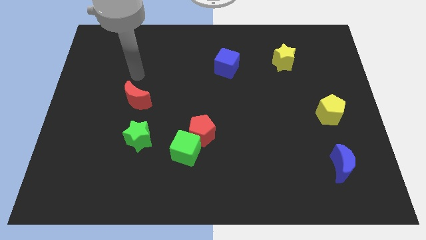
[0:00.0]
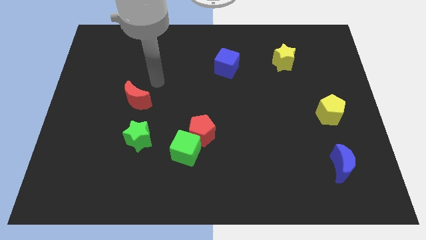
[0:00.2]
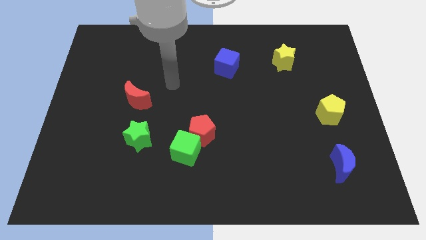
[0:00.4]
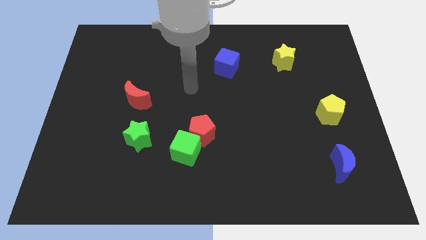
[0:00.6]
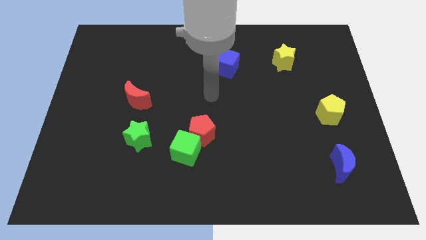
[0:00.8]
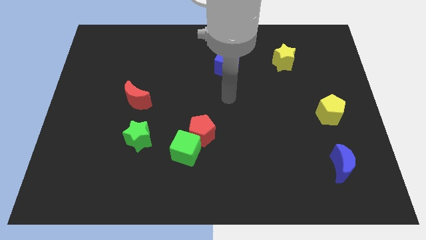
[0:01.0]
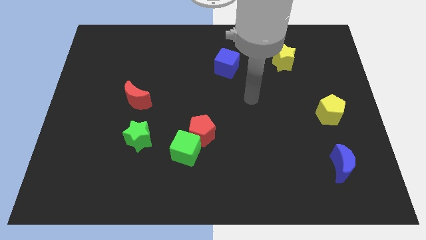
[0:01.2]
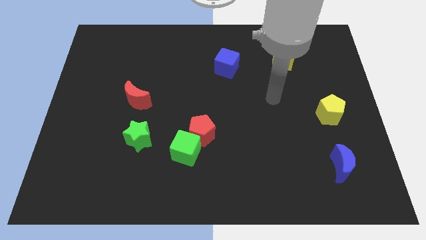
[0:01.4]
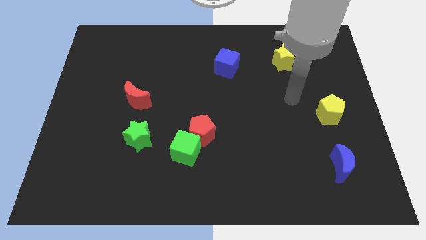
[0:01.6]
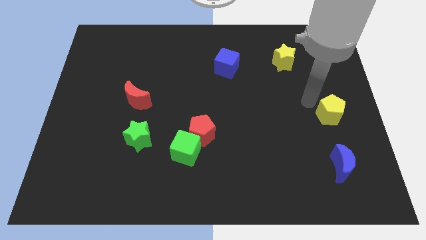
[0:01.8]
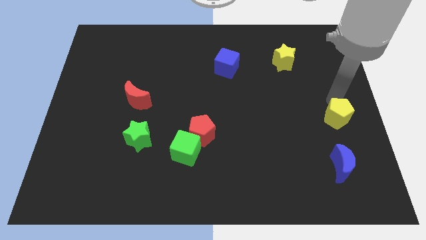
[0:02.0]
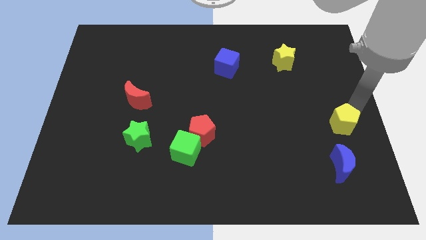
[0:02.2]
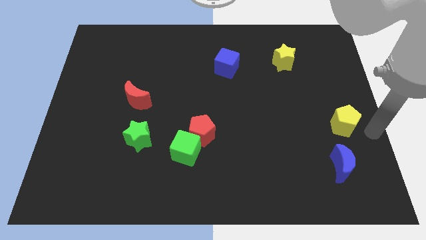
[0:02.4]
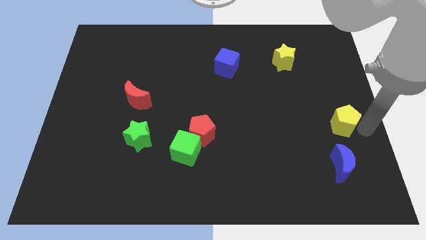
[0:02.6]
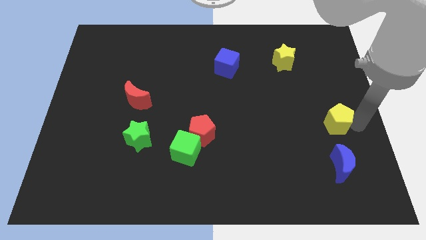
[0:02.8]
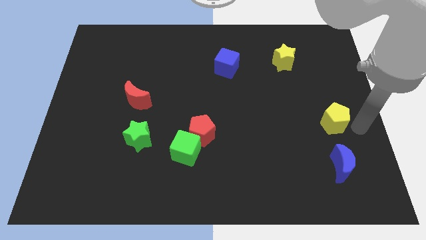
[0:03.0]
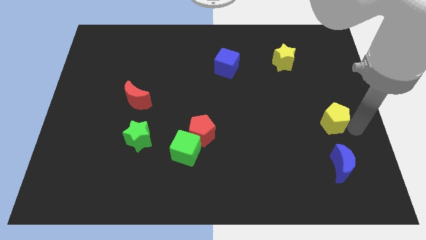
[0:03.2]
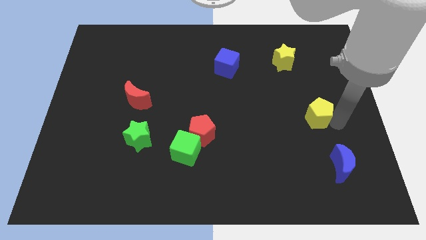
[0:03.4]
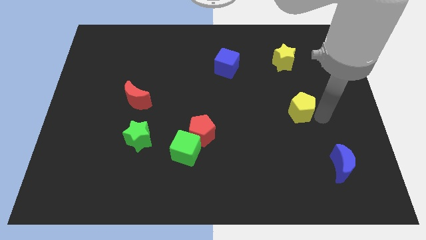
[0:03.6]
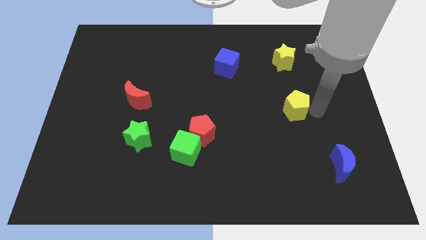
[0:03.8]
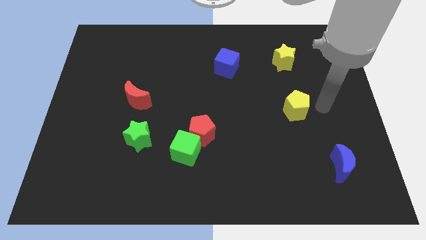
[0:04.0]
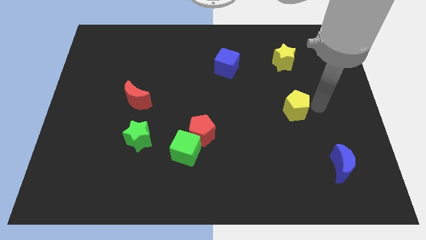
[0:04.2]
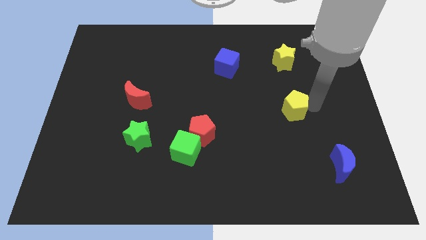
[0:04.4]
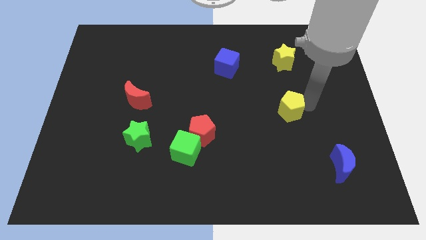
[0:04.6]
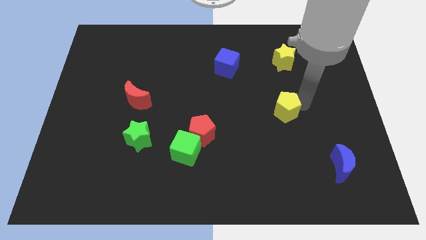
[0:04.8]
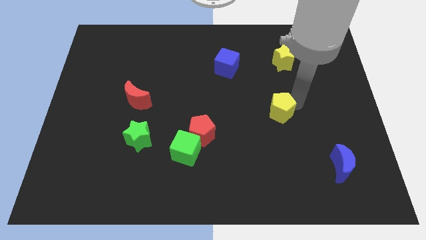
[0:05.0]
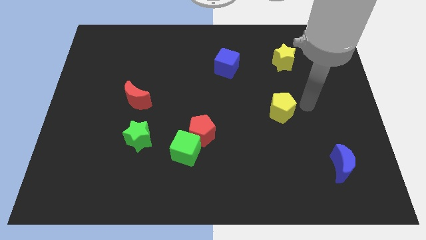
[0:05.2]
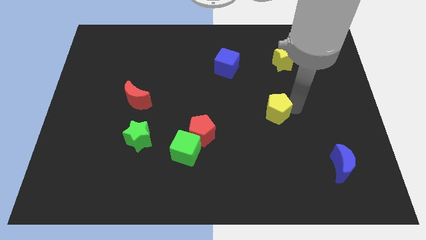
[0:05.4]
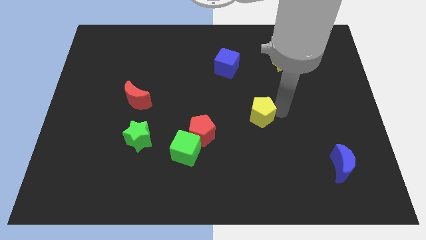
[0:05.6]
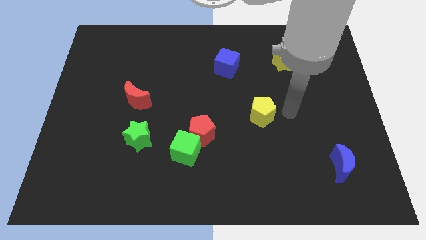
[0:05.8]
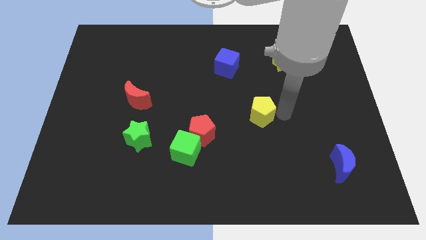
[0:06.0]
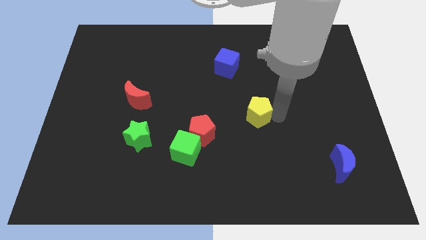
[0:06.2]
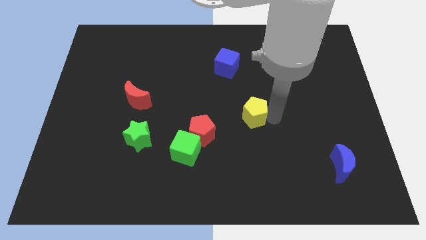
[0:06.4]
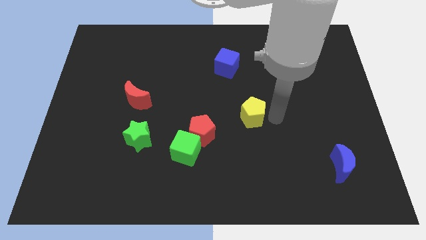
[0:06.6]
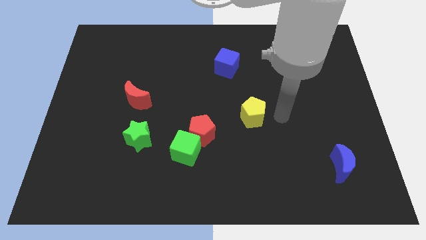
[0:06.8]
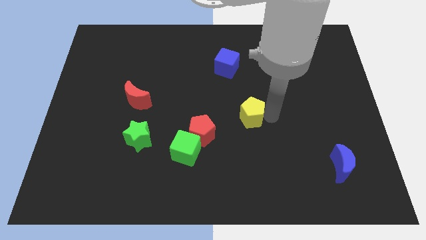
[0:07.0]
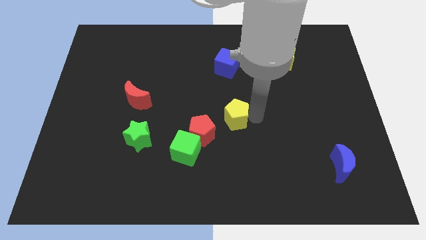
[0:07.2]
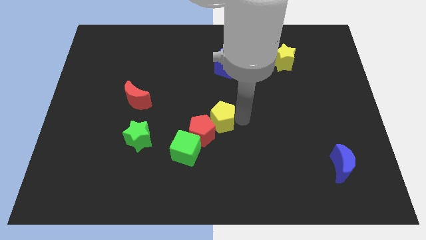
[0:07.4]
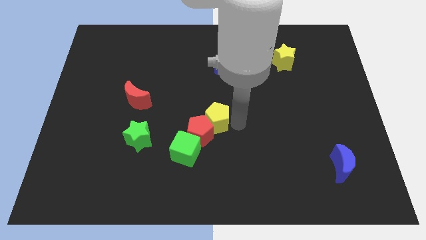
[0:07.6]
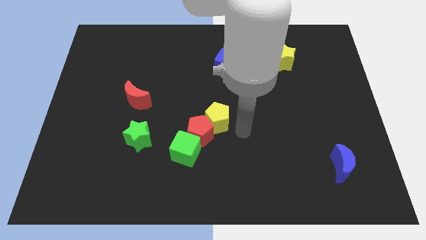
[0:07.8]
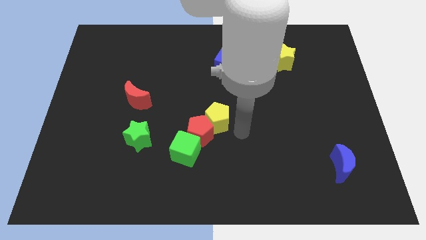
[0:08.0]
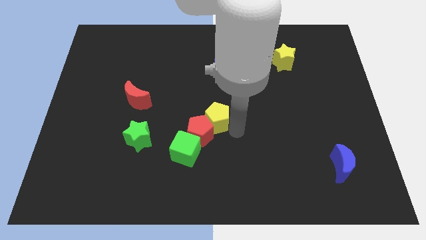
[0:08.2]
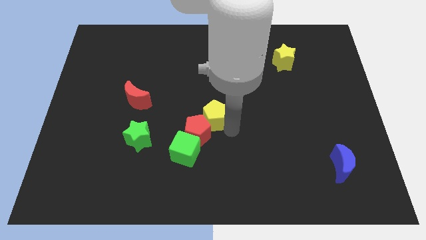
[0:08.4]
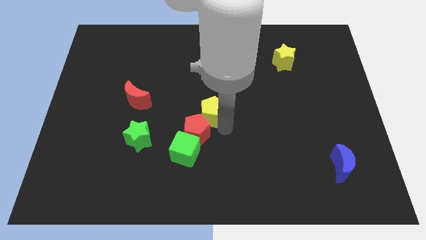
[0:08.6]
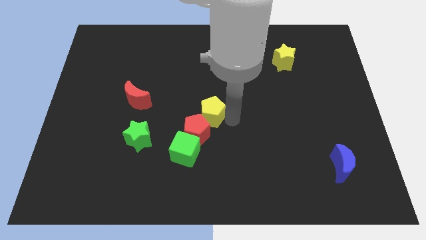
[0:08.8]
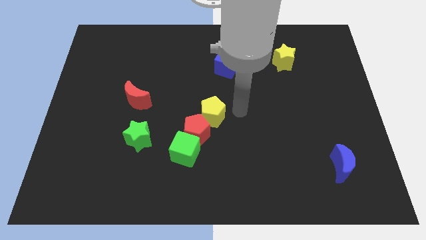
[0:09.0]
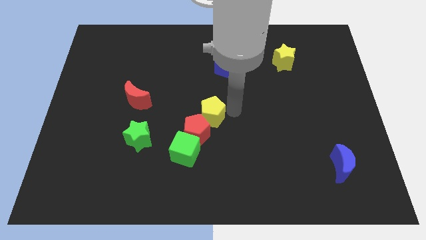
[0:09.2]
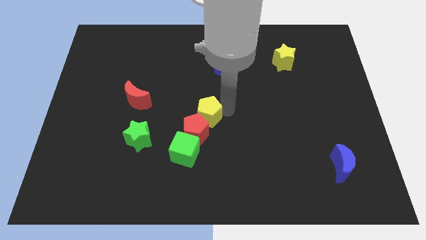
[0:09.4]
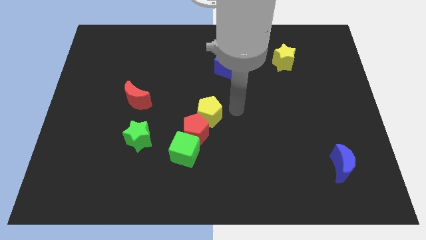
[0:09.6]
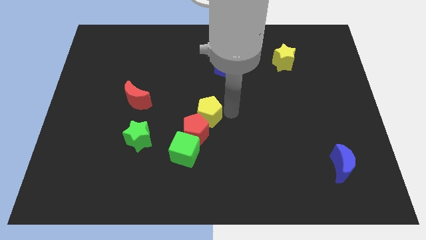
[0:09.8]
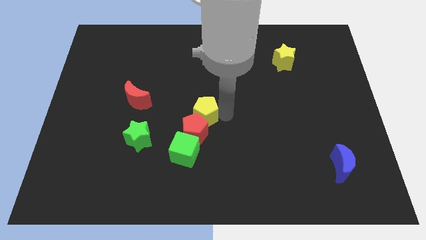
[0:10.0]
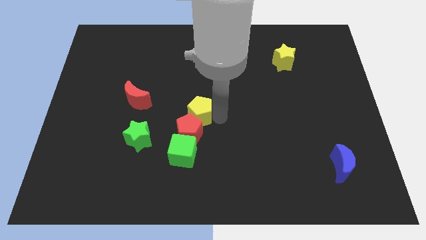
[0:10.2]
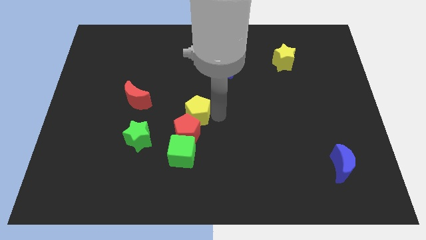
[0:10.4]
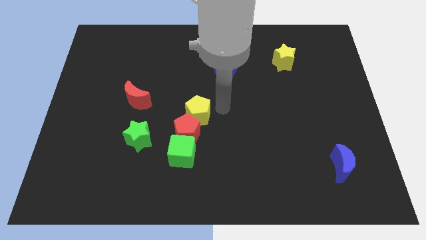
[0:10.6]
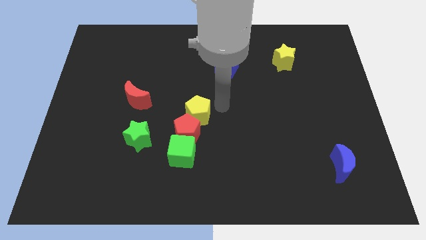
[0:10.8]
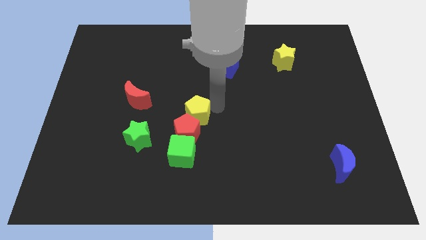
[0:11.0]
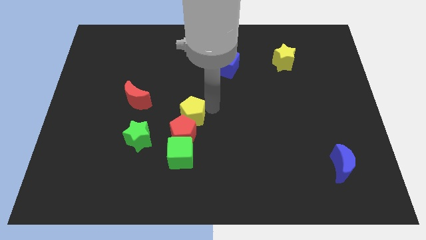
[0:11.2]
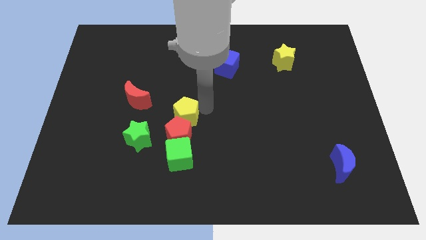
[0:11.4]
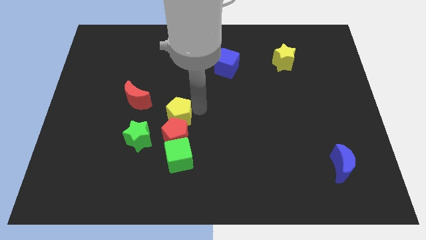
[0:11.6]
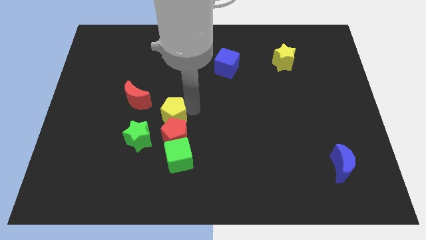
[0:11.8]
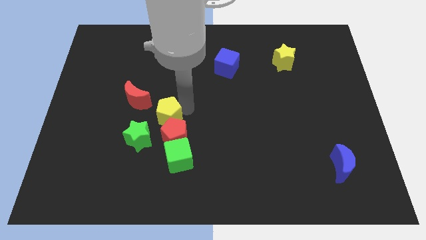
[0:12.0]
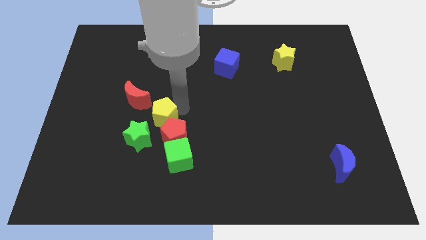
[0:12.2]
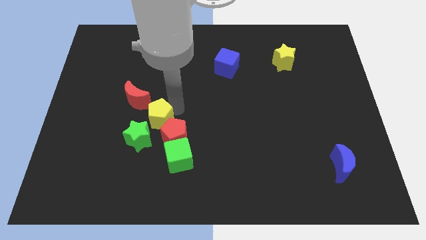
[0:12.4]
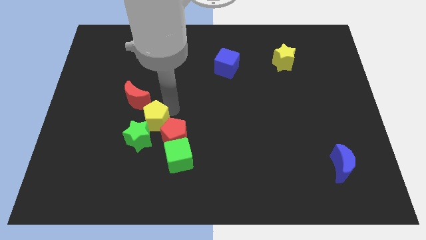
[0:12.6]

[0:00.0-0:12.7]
push the yellow pentagon next to the green star
